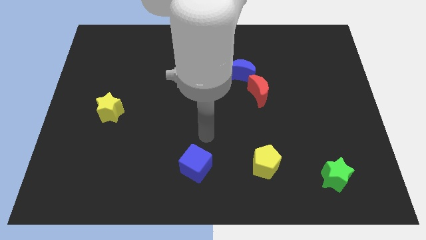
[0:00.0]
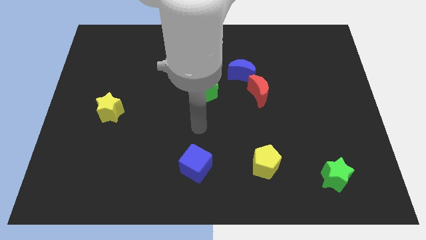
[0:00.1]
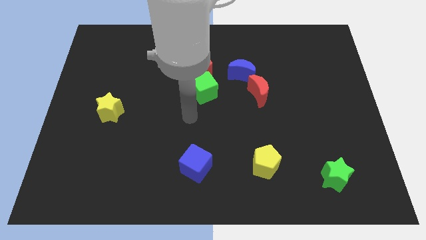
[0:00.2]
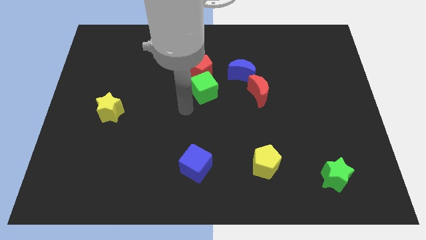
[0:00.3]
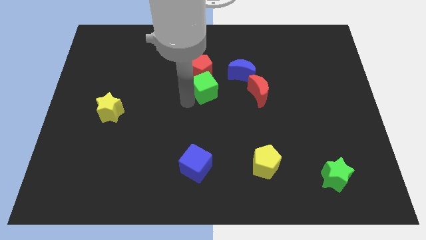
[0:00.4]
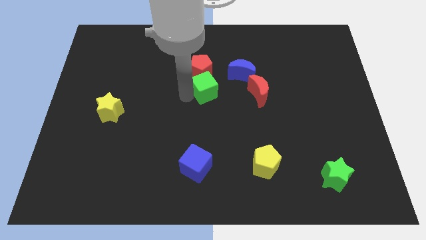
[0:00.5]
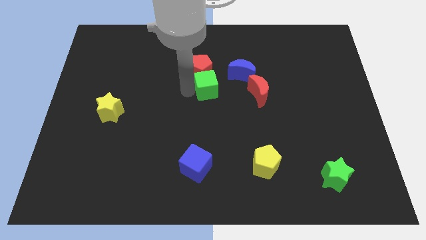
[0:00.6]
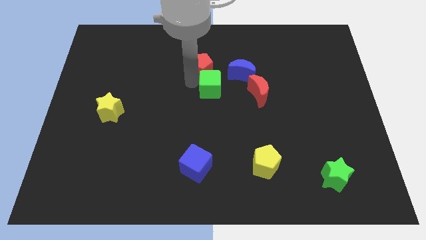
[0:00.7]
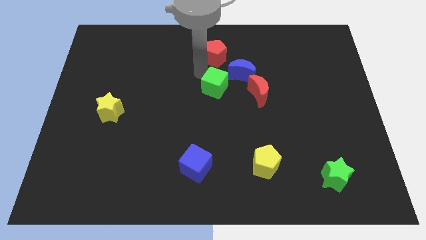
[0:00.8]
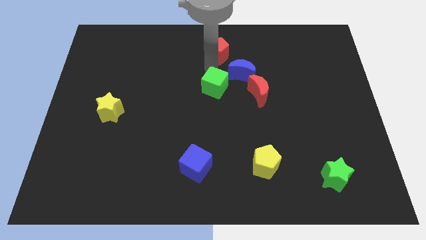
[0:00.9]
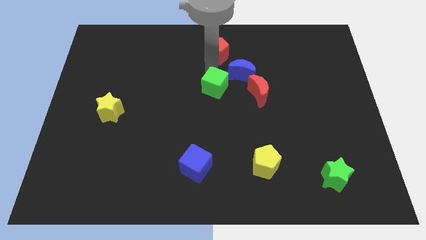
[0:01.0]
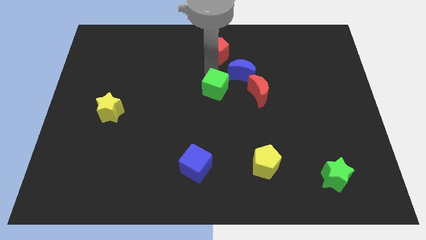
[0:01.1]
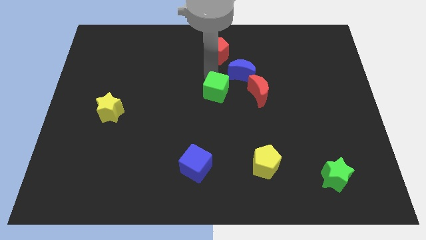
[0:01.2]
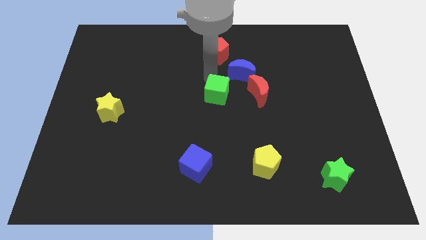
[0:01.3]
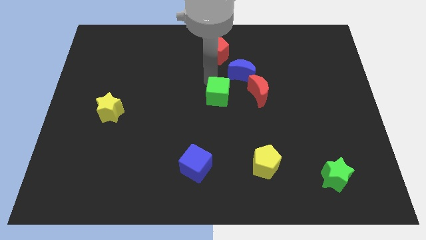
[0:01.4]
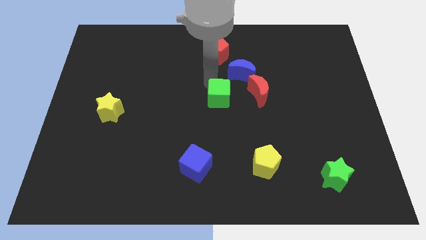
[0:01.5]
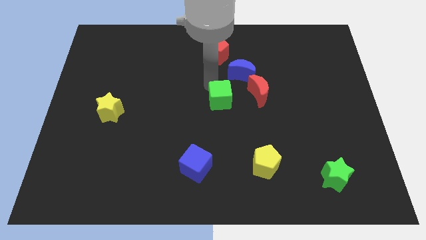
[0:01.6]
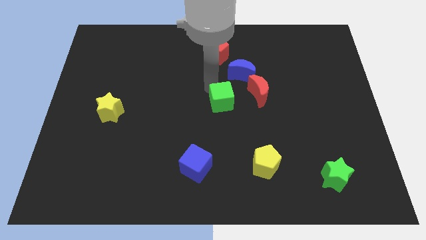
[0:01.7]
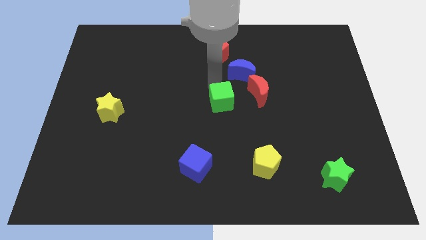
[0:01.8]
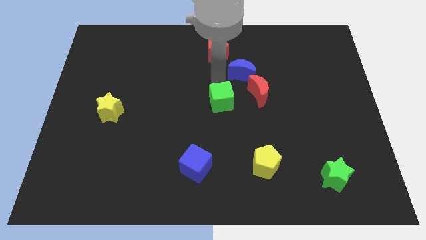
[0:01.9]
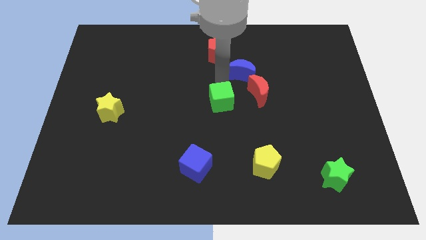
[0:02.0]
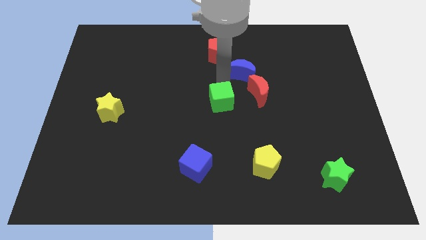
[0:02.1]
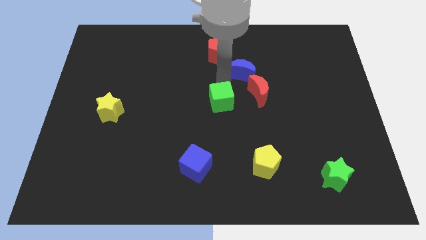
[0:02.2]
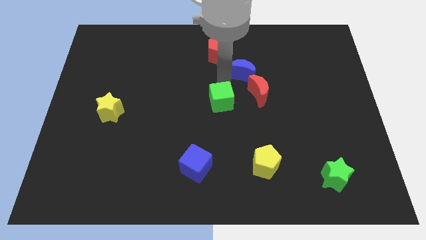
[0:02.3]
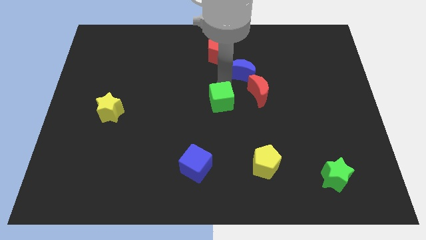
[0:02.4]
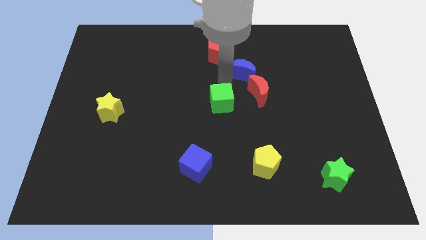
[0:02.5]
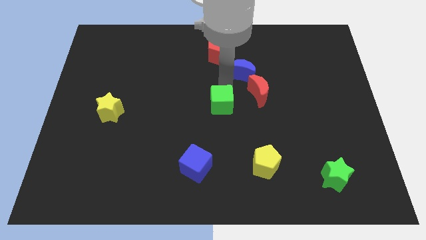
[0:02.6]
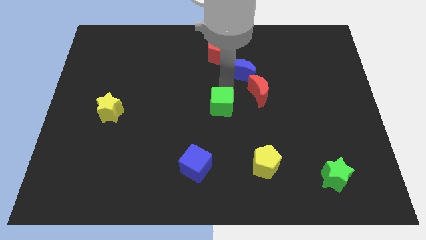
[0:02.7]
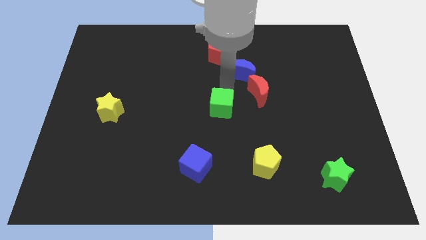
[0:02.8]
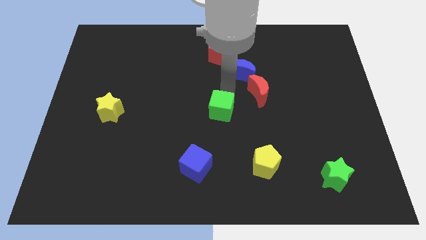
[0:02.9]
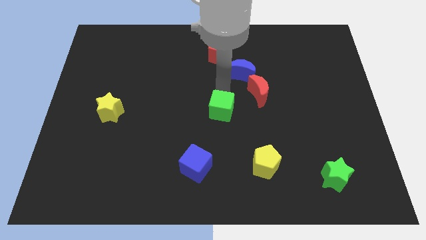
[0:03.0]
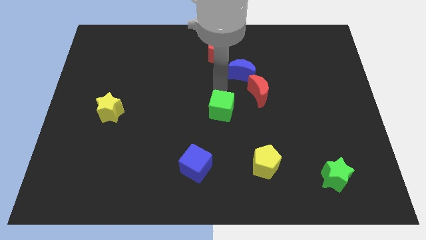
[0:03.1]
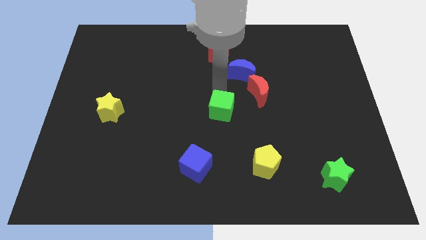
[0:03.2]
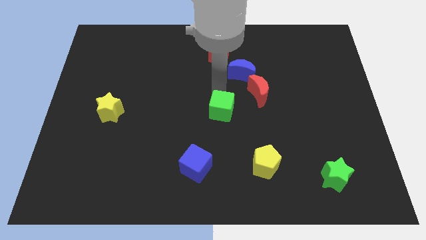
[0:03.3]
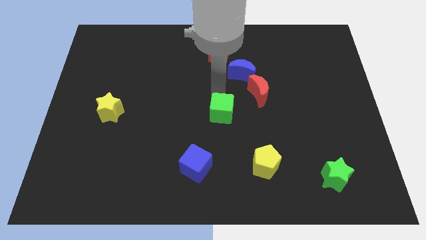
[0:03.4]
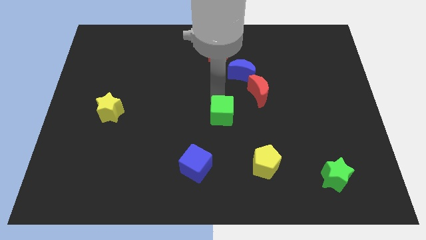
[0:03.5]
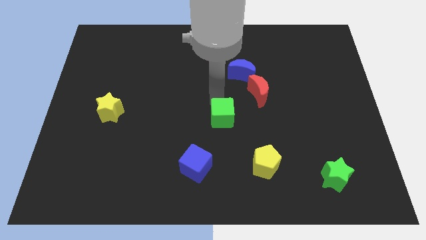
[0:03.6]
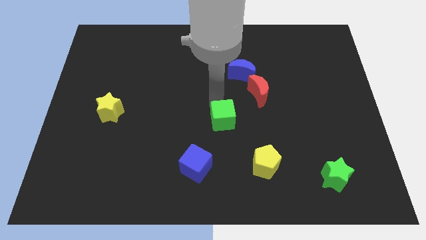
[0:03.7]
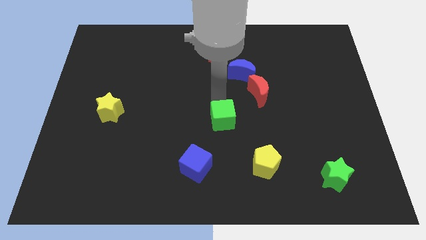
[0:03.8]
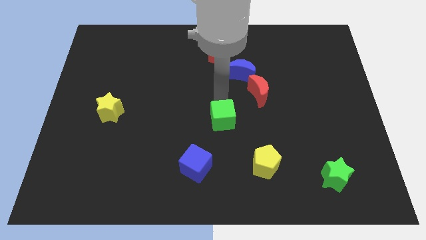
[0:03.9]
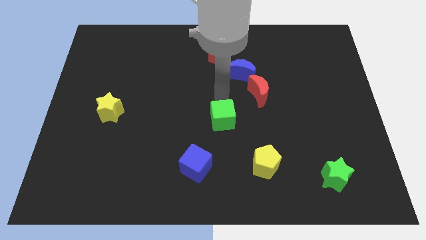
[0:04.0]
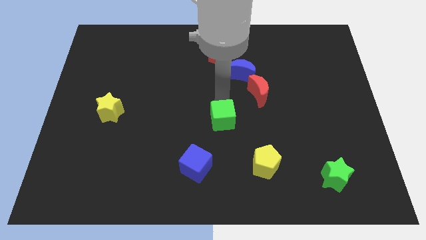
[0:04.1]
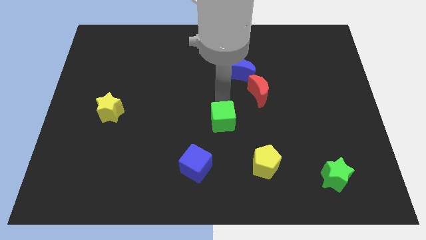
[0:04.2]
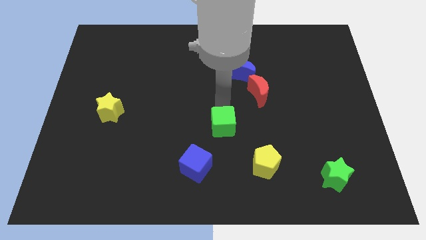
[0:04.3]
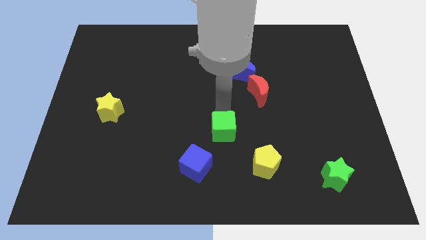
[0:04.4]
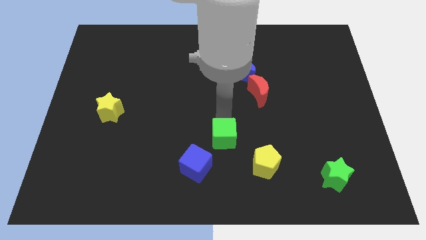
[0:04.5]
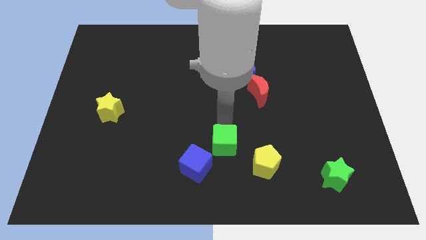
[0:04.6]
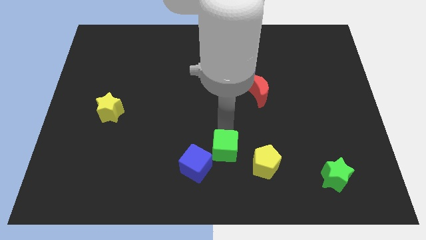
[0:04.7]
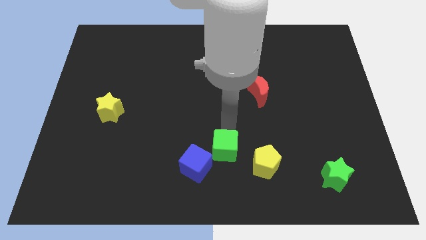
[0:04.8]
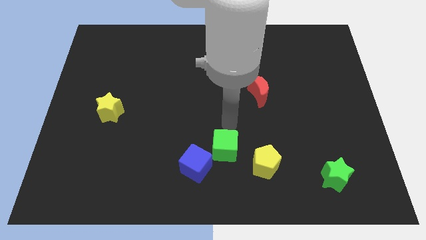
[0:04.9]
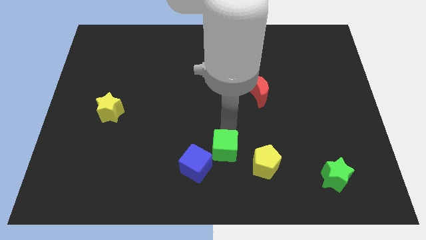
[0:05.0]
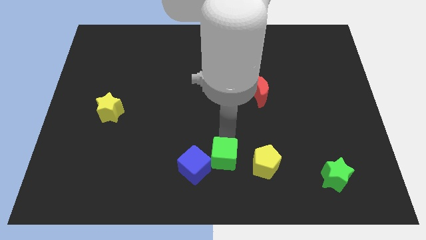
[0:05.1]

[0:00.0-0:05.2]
move the green cube to the bottom
